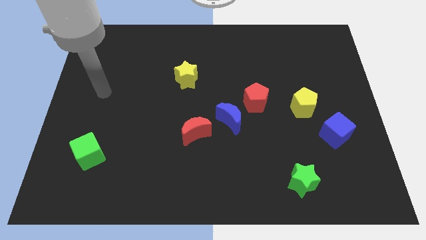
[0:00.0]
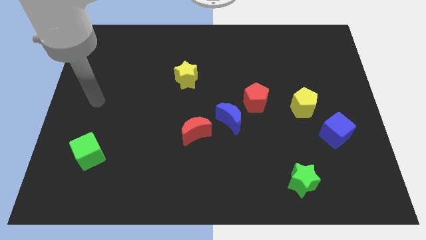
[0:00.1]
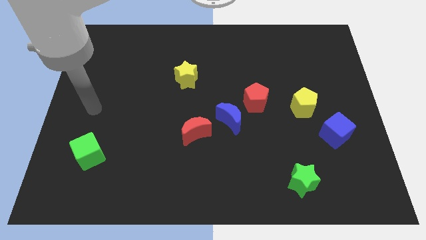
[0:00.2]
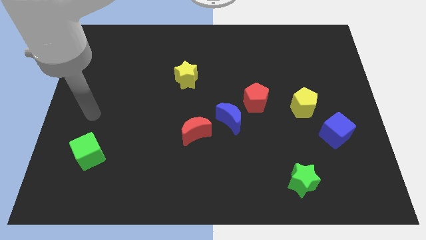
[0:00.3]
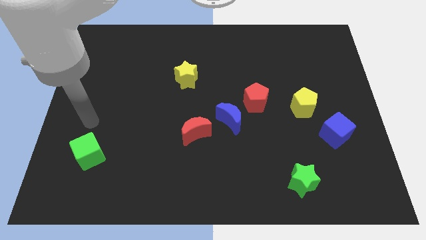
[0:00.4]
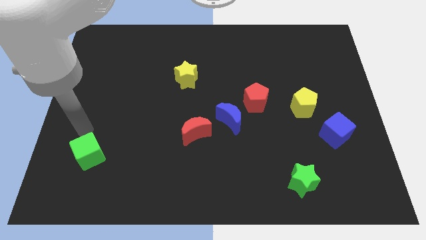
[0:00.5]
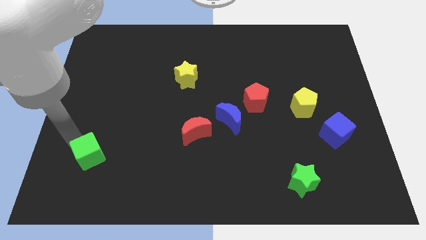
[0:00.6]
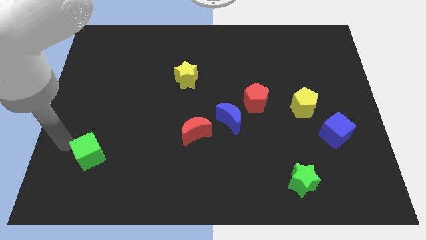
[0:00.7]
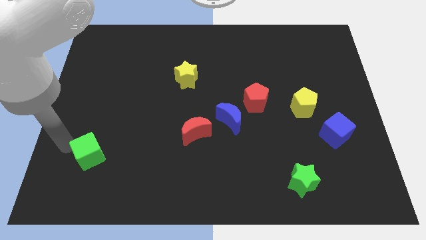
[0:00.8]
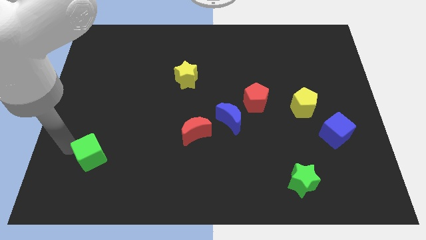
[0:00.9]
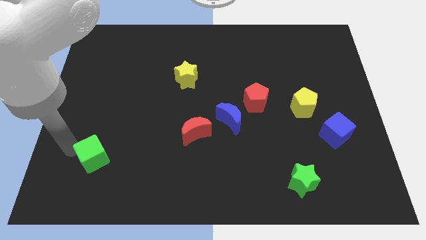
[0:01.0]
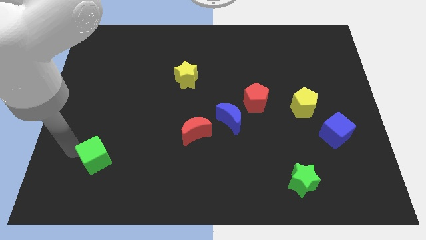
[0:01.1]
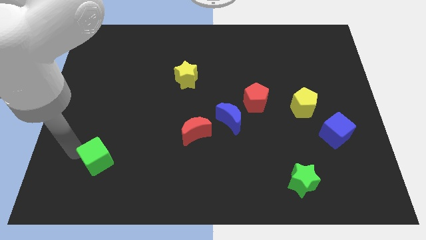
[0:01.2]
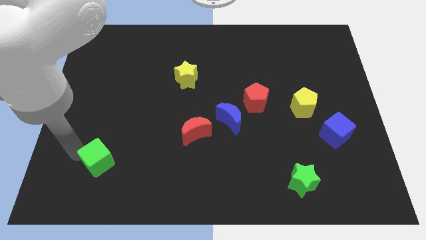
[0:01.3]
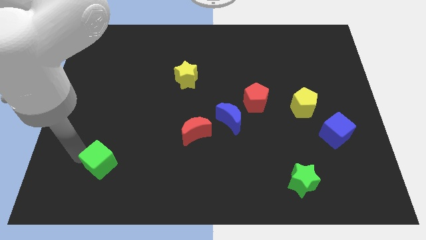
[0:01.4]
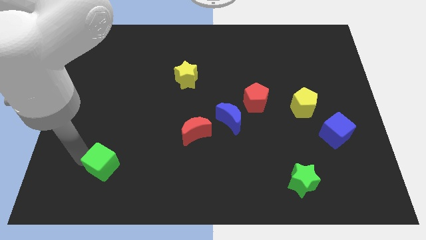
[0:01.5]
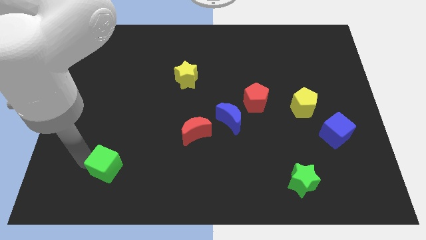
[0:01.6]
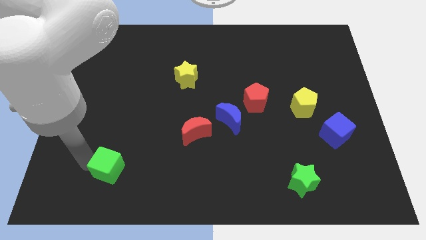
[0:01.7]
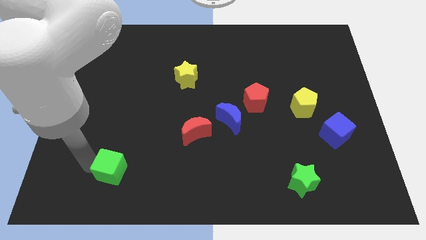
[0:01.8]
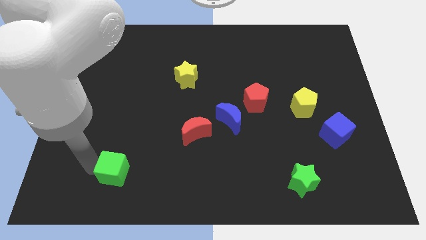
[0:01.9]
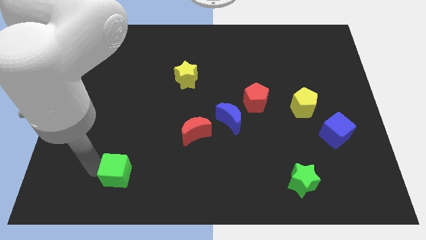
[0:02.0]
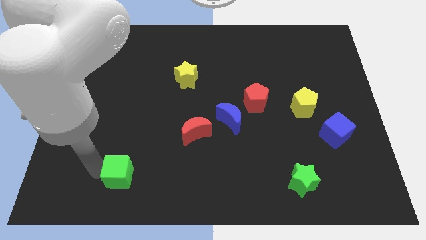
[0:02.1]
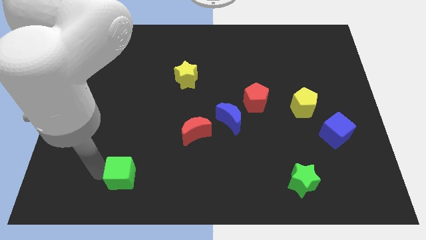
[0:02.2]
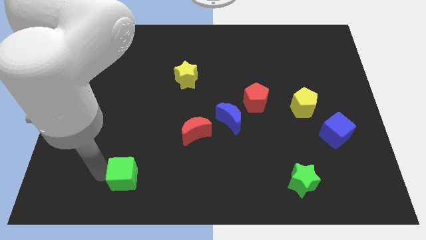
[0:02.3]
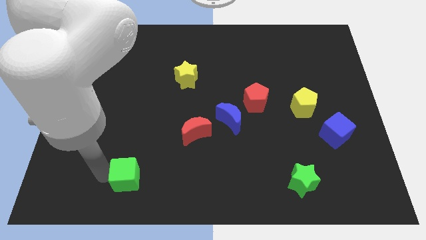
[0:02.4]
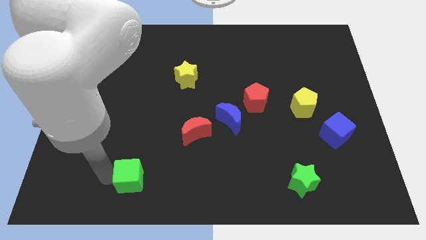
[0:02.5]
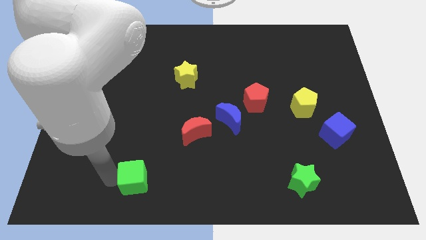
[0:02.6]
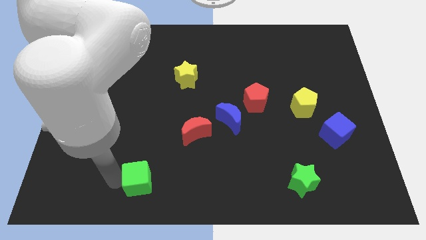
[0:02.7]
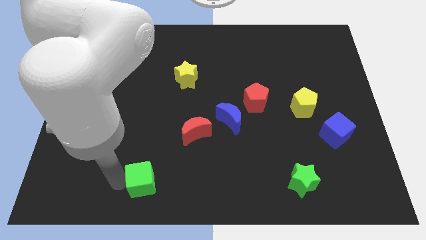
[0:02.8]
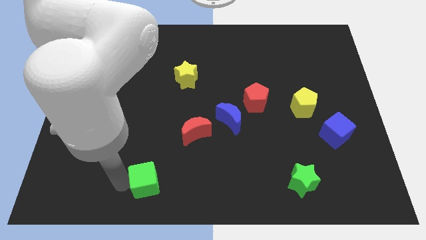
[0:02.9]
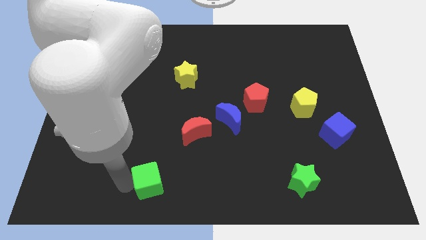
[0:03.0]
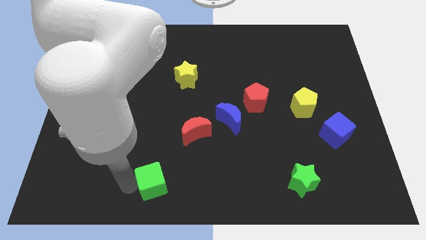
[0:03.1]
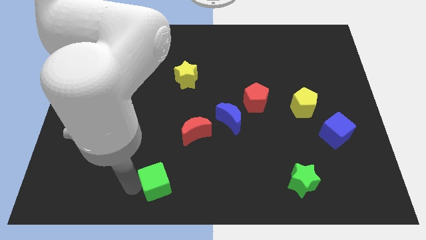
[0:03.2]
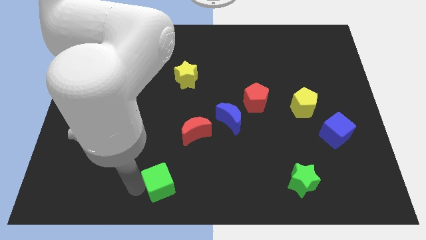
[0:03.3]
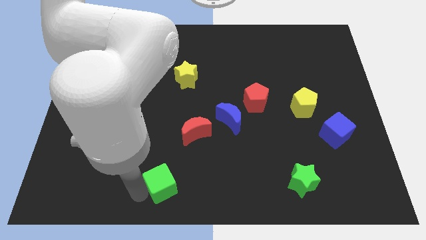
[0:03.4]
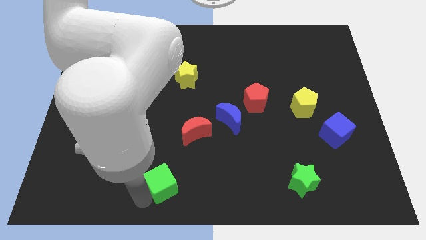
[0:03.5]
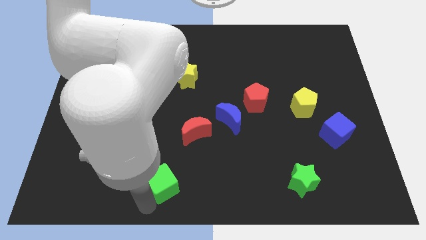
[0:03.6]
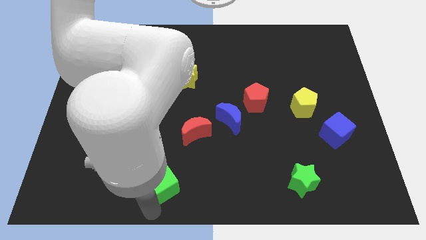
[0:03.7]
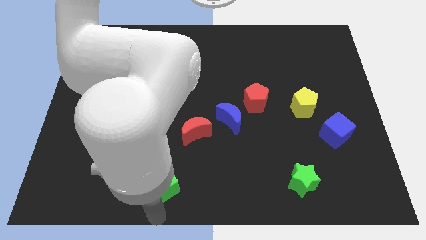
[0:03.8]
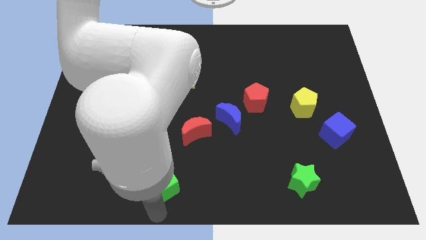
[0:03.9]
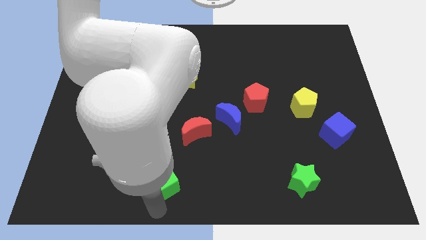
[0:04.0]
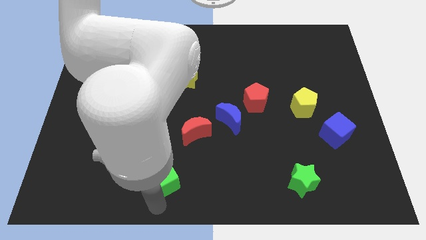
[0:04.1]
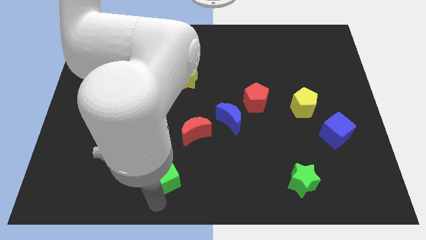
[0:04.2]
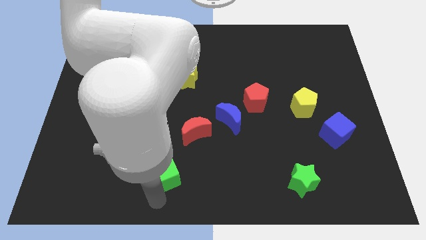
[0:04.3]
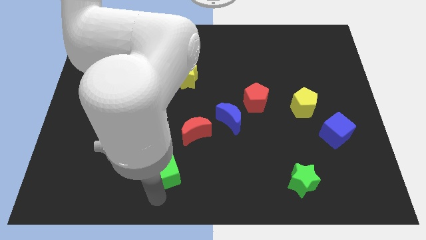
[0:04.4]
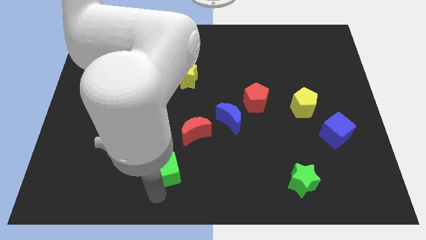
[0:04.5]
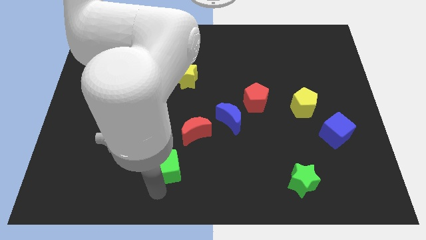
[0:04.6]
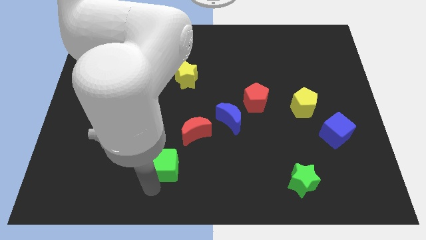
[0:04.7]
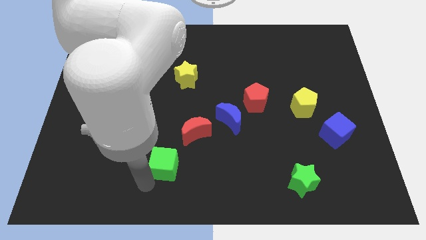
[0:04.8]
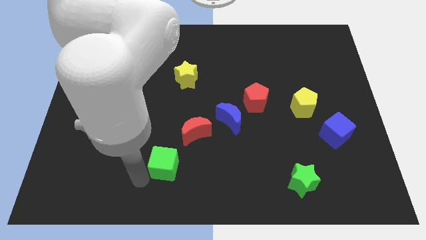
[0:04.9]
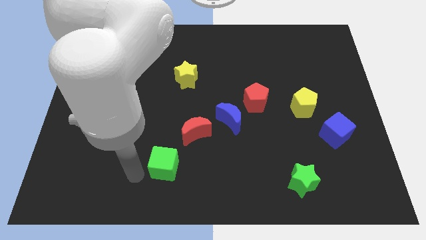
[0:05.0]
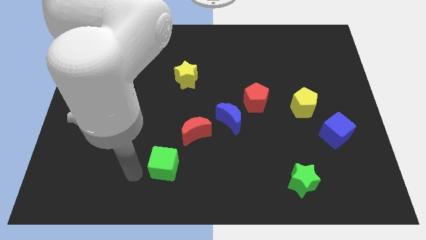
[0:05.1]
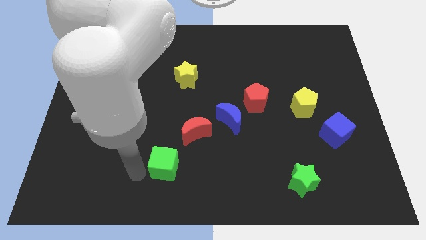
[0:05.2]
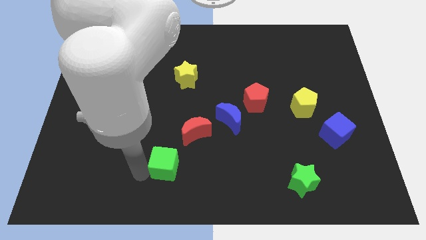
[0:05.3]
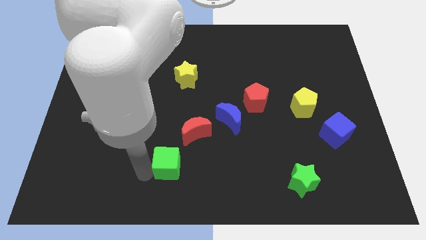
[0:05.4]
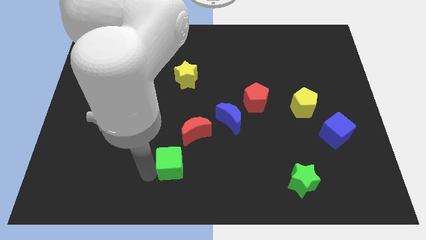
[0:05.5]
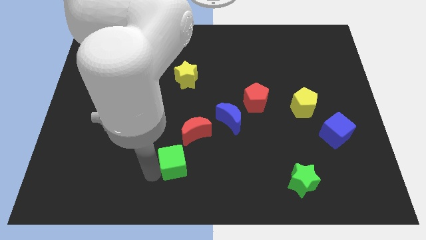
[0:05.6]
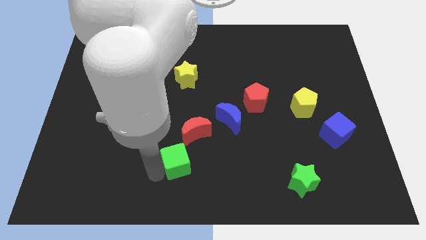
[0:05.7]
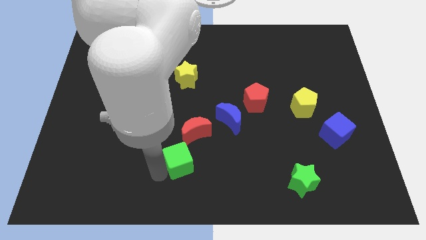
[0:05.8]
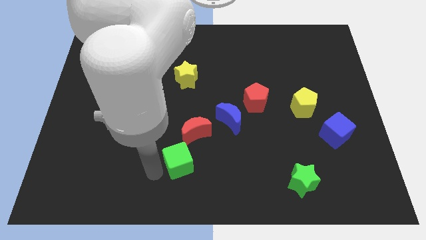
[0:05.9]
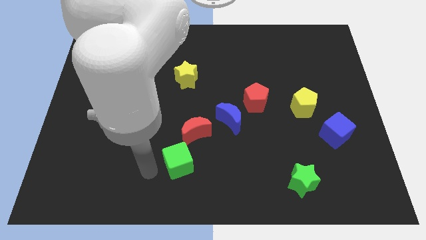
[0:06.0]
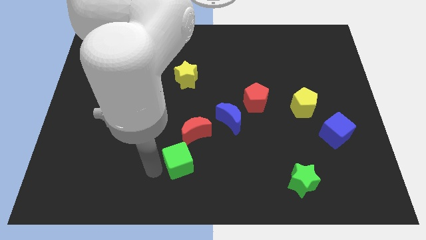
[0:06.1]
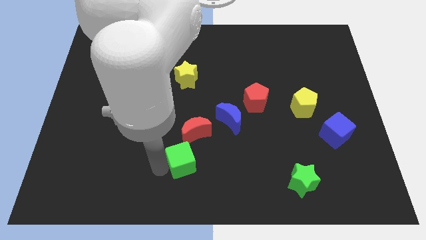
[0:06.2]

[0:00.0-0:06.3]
move the green cube to the right

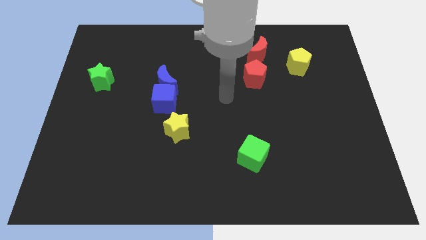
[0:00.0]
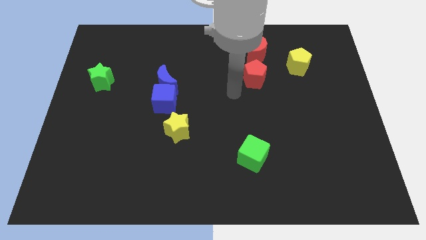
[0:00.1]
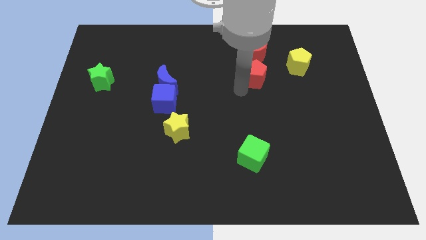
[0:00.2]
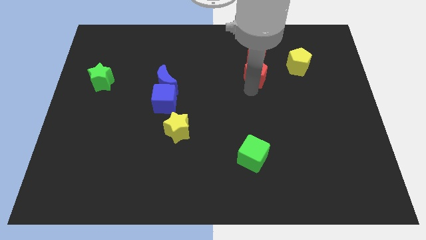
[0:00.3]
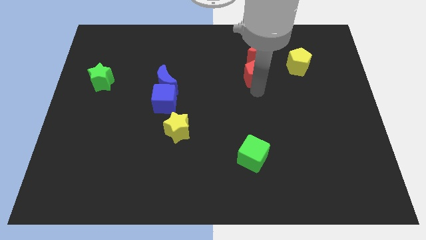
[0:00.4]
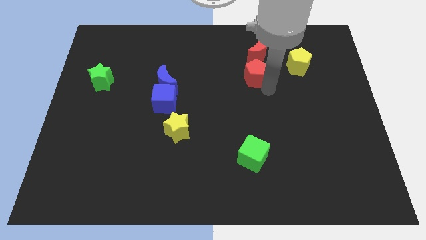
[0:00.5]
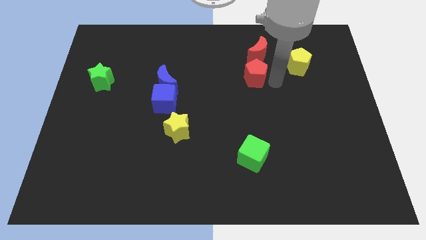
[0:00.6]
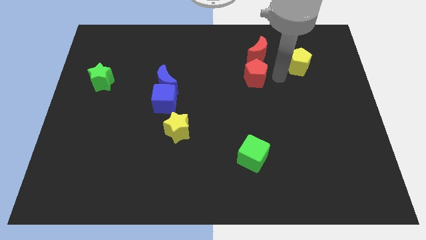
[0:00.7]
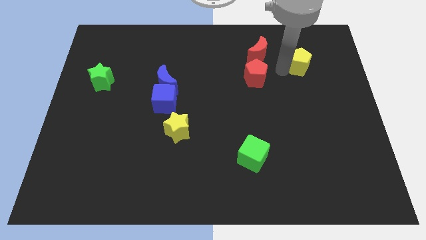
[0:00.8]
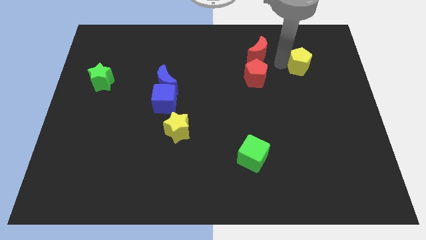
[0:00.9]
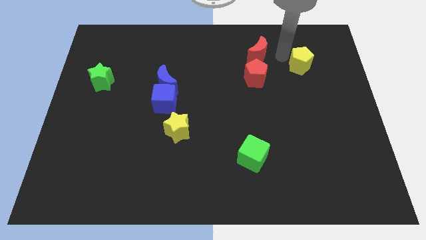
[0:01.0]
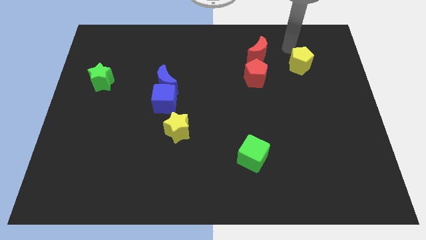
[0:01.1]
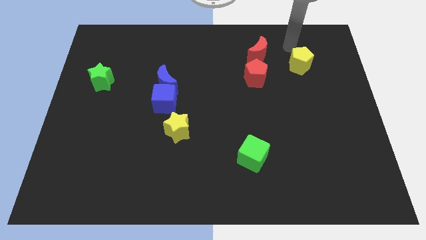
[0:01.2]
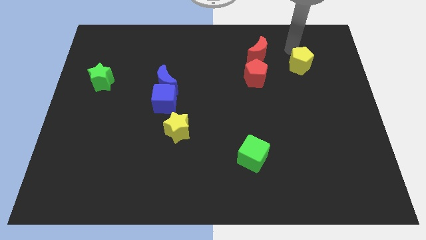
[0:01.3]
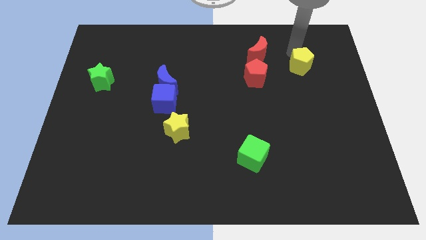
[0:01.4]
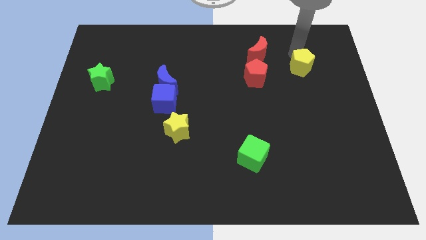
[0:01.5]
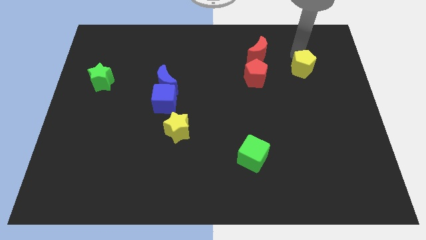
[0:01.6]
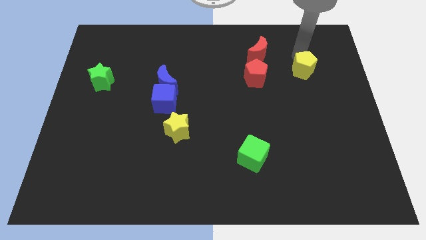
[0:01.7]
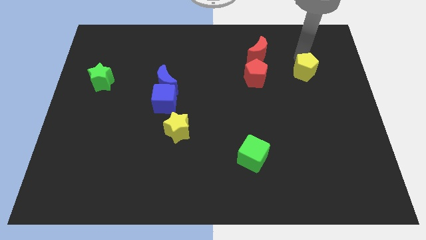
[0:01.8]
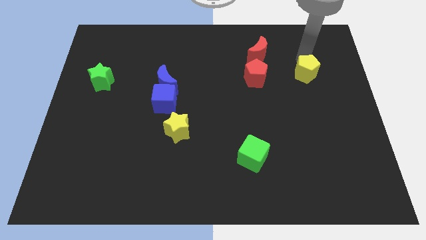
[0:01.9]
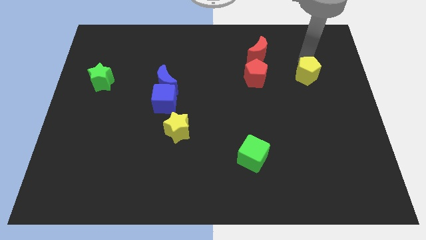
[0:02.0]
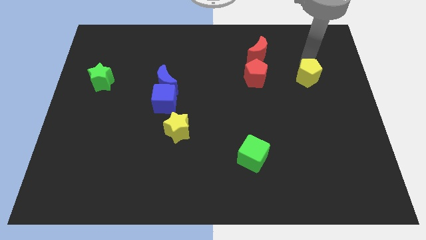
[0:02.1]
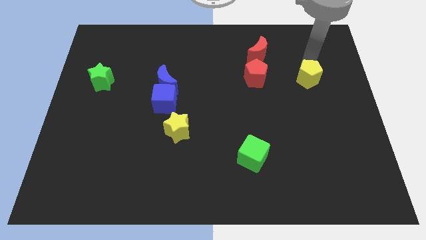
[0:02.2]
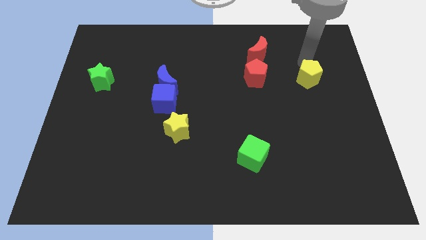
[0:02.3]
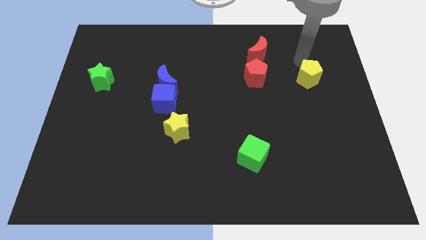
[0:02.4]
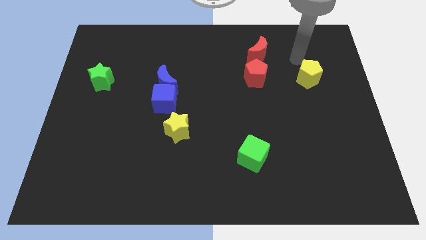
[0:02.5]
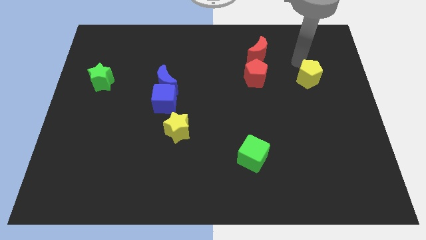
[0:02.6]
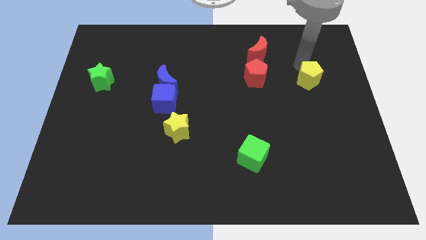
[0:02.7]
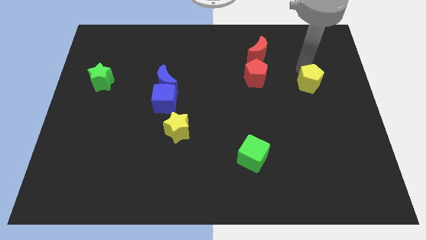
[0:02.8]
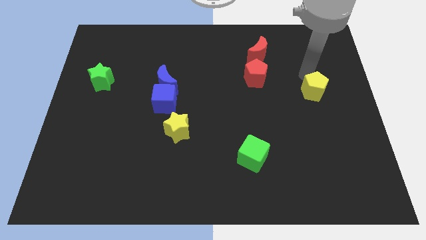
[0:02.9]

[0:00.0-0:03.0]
move the yellow pentagon a little down
